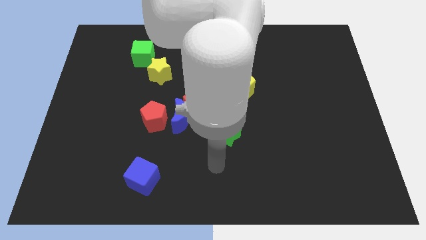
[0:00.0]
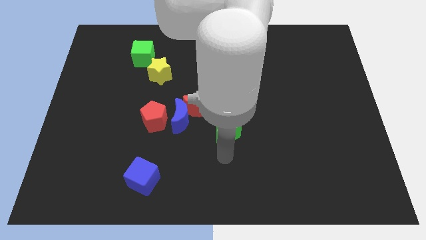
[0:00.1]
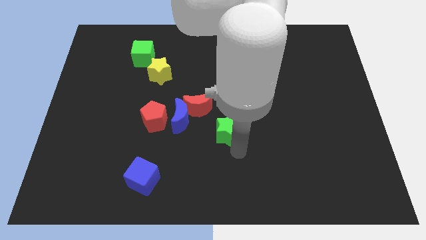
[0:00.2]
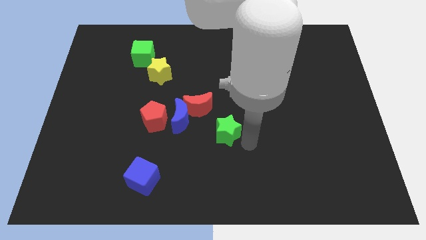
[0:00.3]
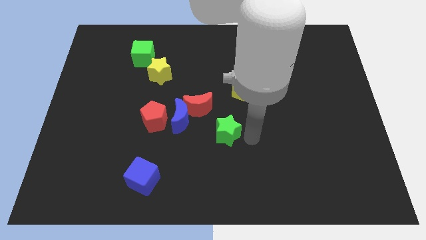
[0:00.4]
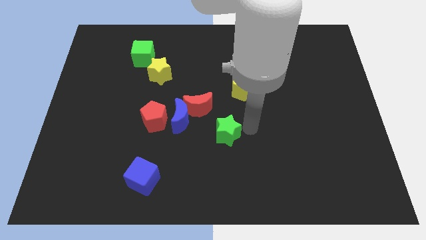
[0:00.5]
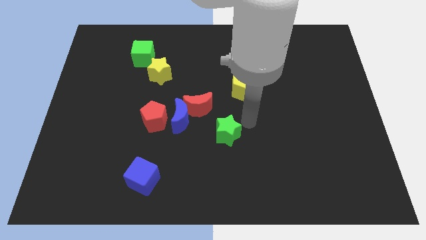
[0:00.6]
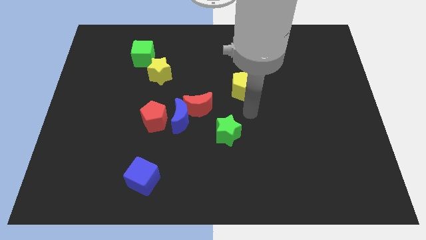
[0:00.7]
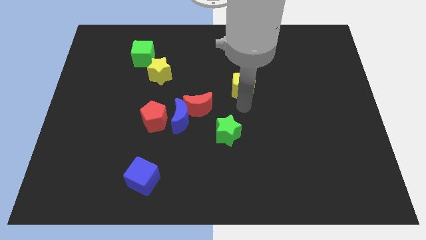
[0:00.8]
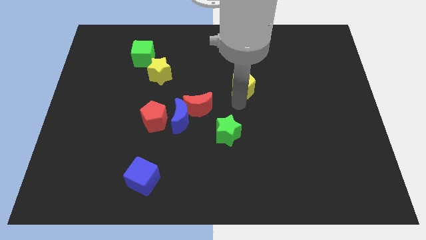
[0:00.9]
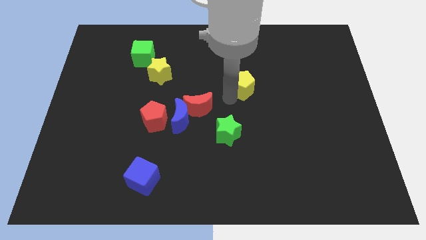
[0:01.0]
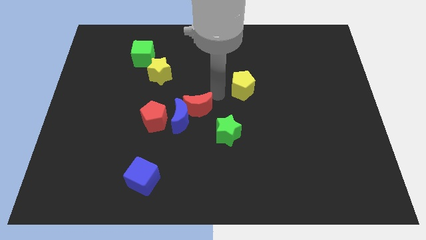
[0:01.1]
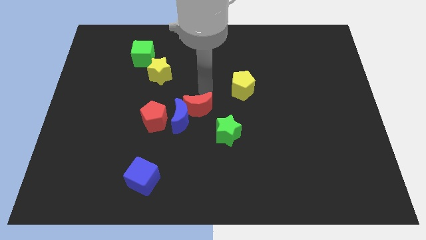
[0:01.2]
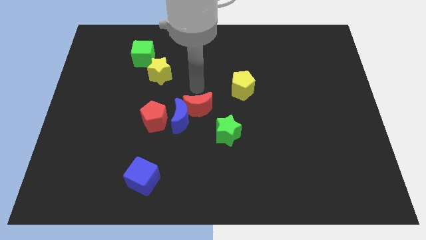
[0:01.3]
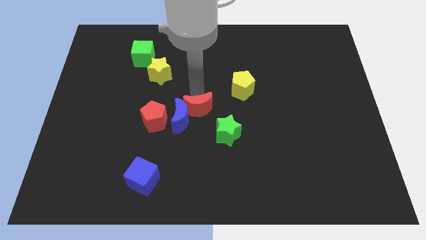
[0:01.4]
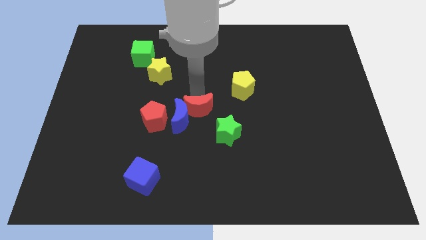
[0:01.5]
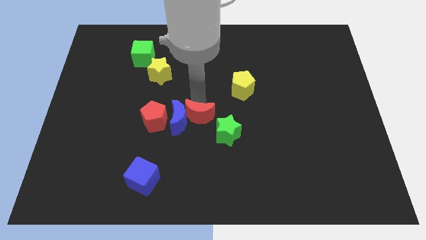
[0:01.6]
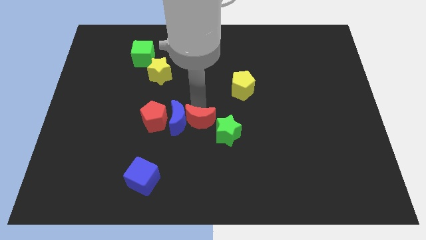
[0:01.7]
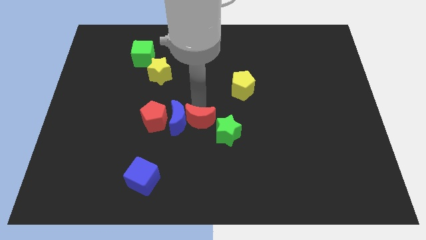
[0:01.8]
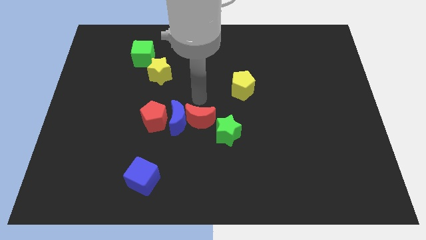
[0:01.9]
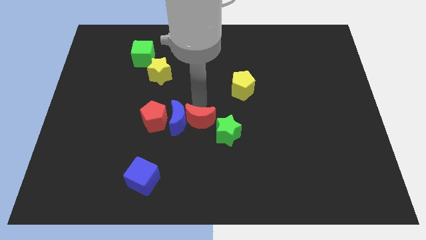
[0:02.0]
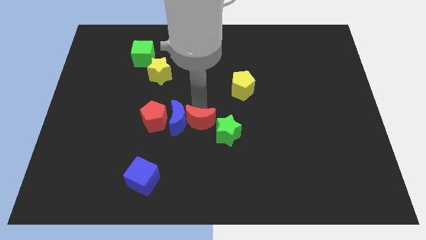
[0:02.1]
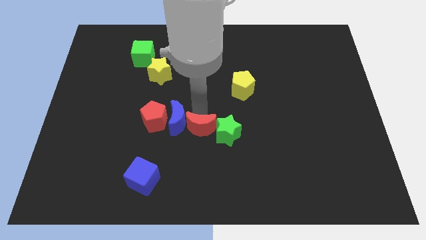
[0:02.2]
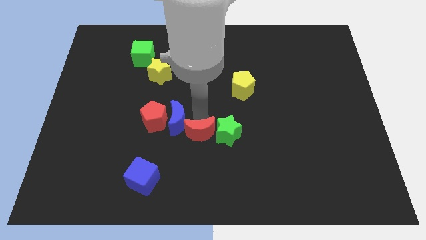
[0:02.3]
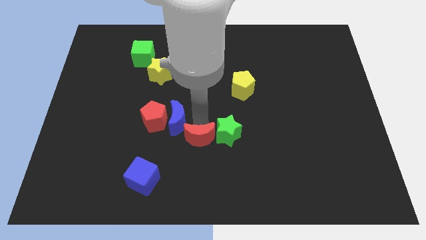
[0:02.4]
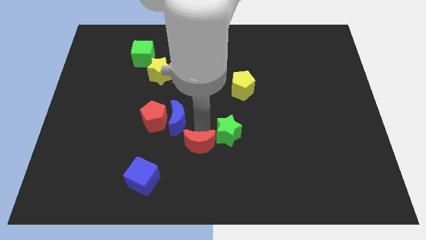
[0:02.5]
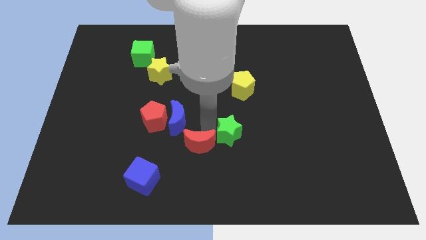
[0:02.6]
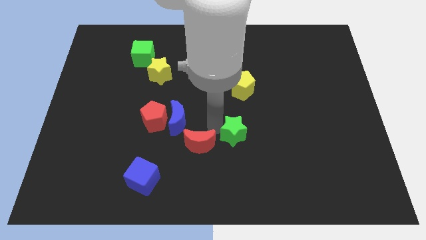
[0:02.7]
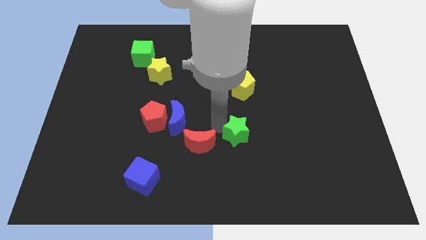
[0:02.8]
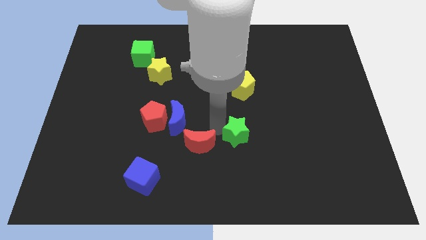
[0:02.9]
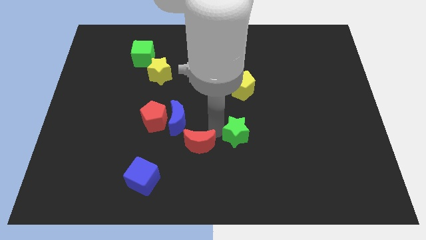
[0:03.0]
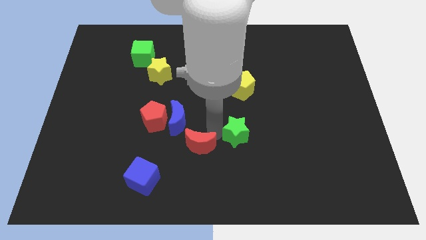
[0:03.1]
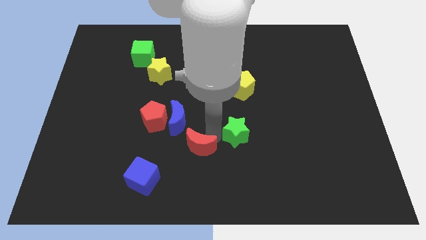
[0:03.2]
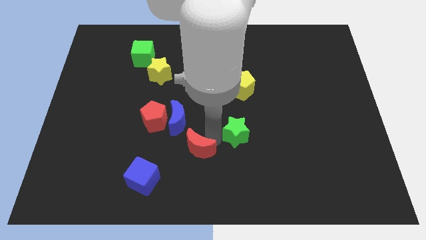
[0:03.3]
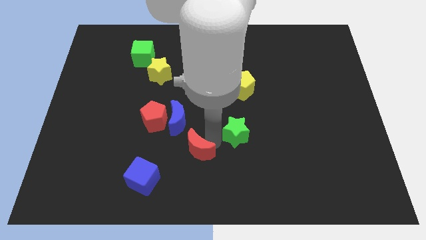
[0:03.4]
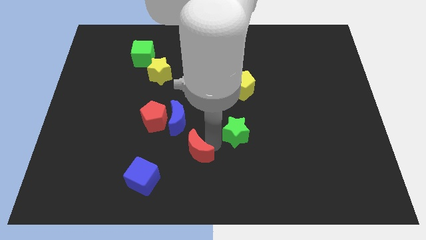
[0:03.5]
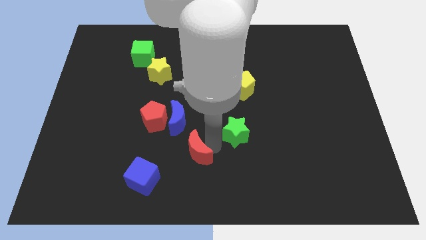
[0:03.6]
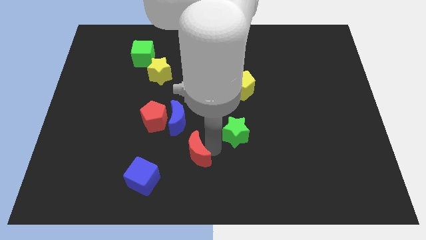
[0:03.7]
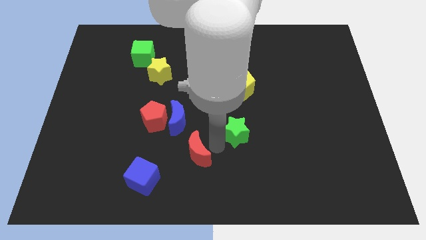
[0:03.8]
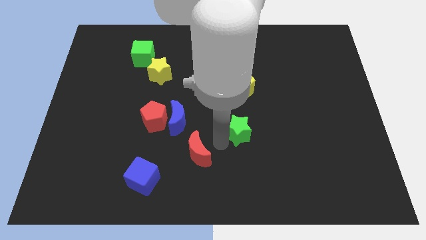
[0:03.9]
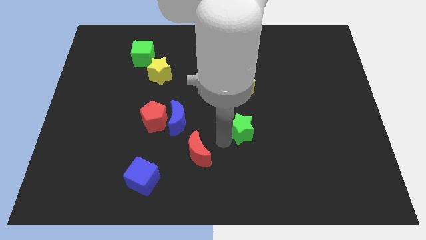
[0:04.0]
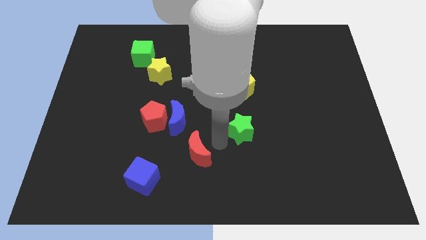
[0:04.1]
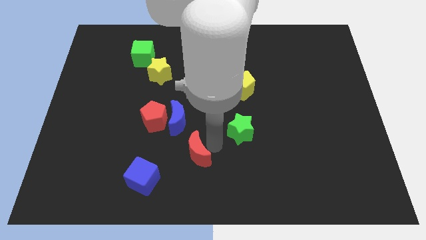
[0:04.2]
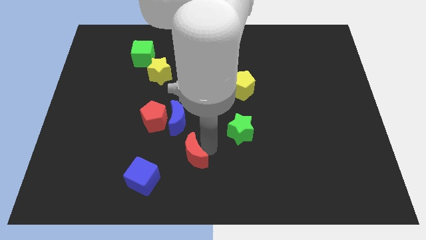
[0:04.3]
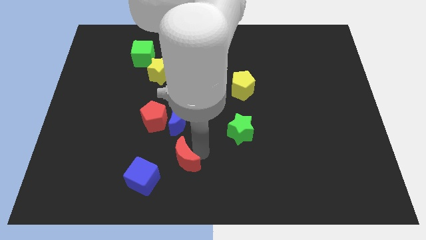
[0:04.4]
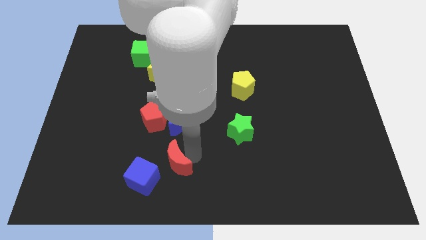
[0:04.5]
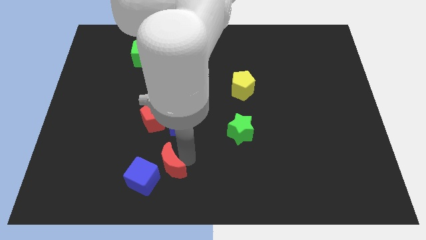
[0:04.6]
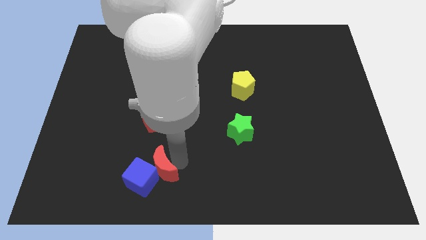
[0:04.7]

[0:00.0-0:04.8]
push the red moon close to the blue cube

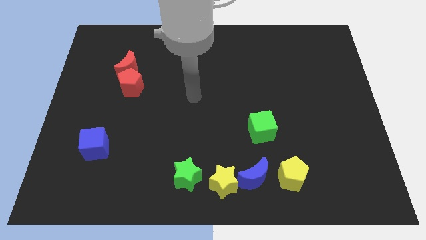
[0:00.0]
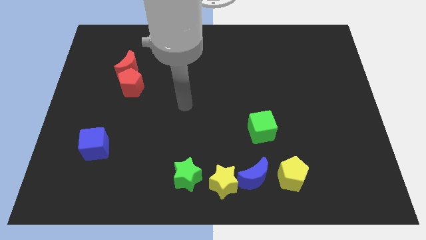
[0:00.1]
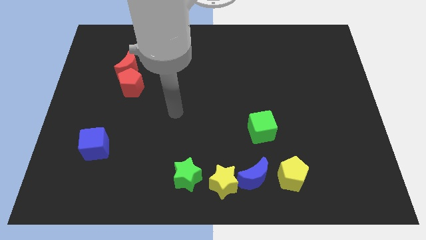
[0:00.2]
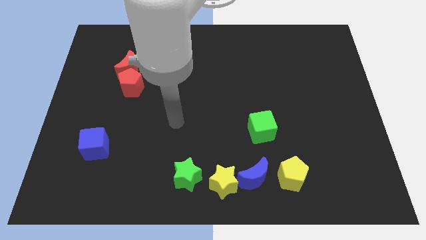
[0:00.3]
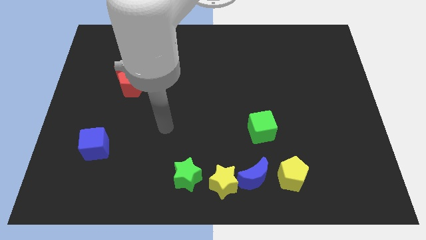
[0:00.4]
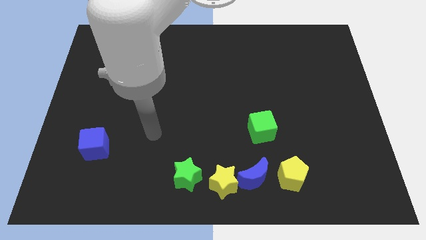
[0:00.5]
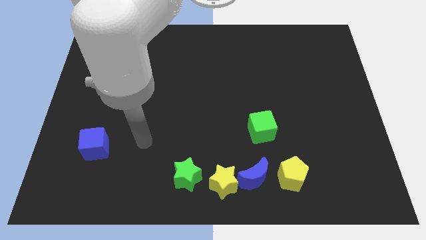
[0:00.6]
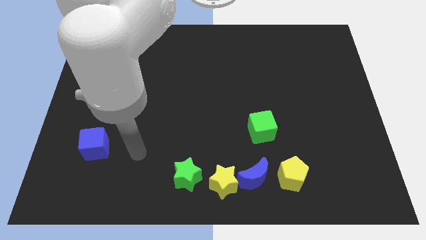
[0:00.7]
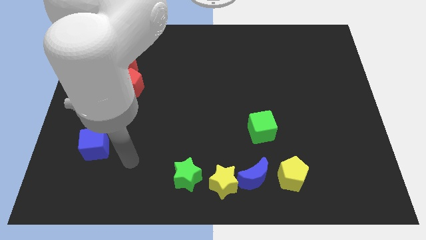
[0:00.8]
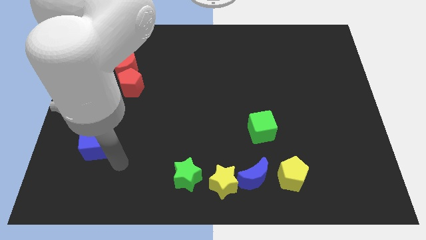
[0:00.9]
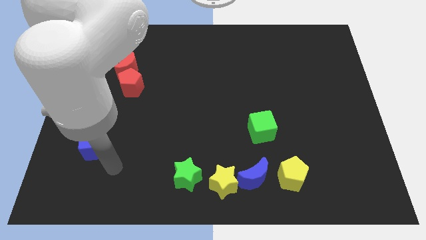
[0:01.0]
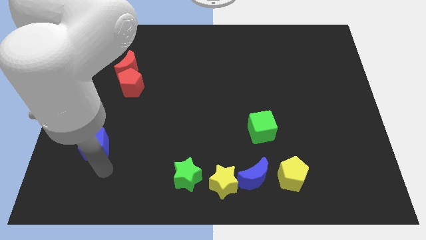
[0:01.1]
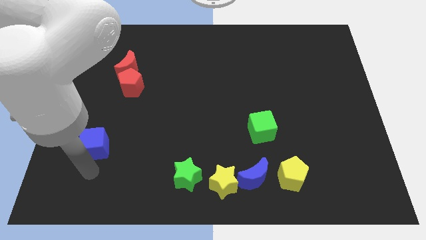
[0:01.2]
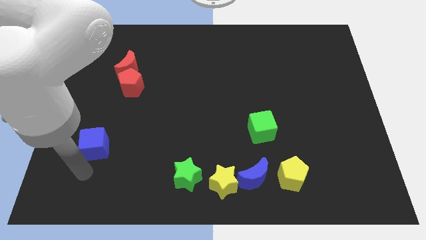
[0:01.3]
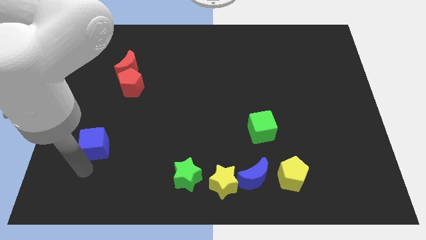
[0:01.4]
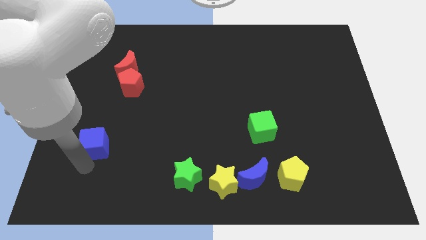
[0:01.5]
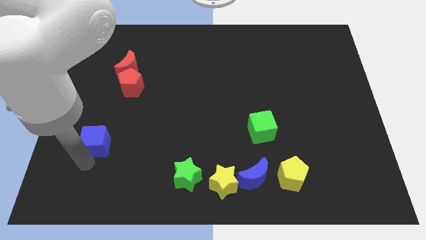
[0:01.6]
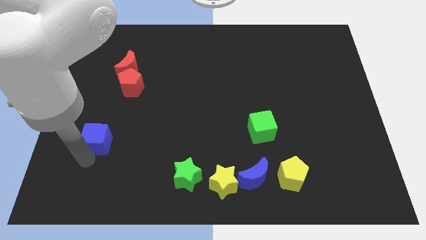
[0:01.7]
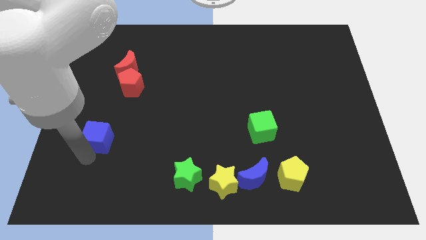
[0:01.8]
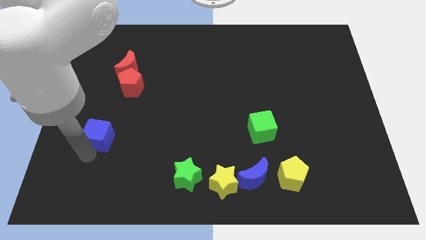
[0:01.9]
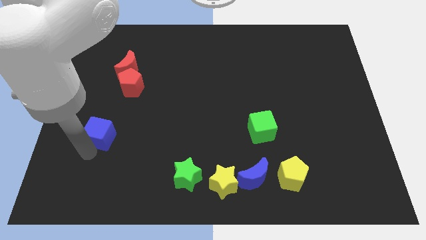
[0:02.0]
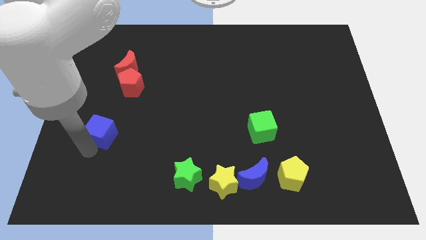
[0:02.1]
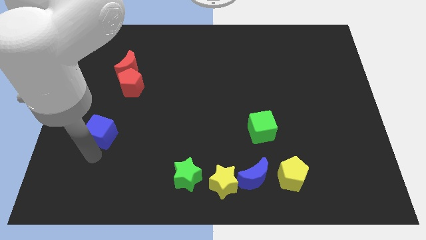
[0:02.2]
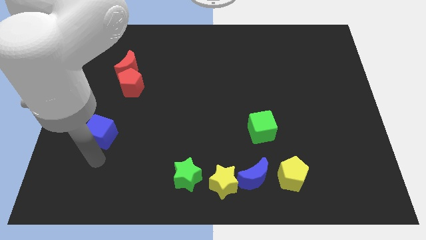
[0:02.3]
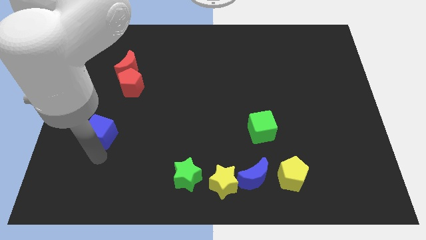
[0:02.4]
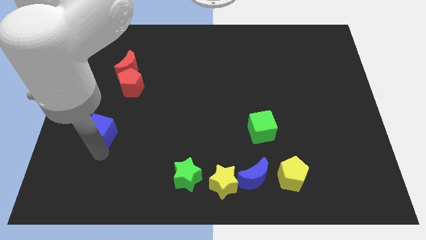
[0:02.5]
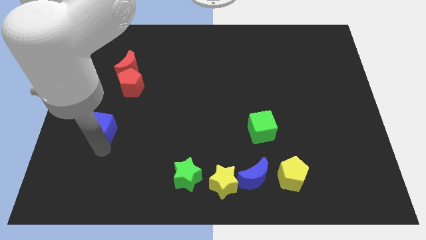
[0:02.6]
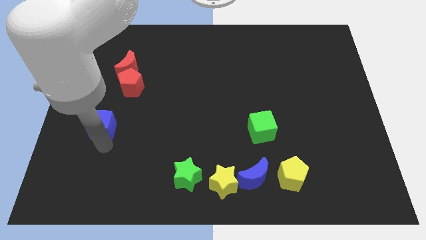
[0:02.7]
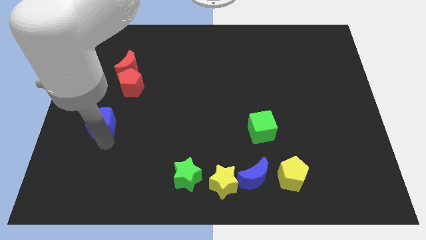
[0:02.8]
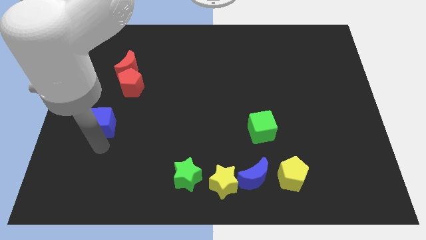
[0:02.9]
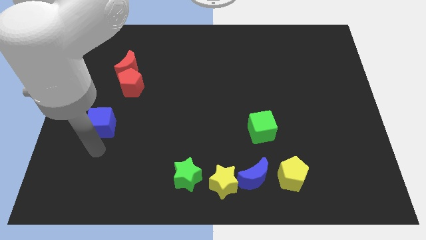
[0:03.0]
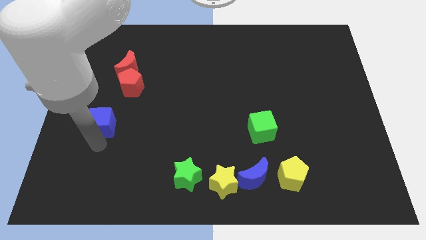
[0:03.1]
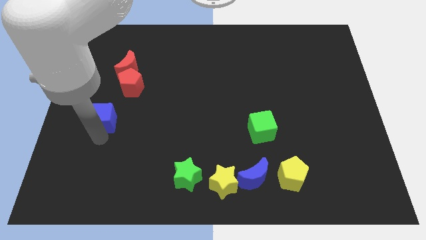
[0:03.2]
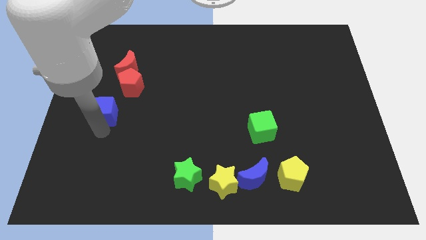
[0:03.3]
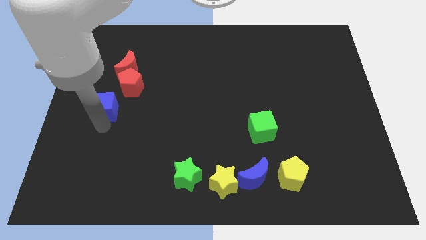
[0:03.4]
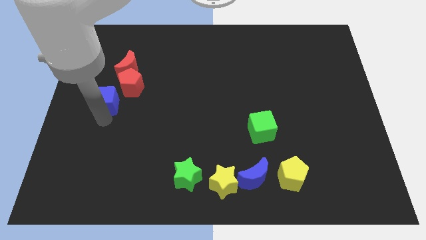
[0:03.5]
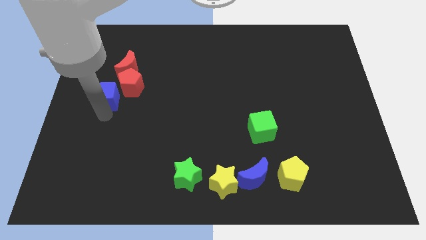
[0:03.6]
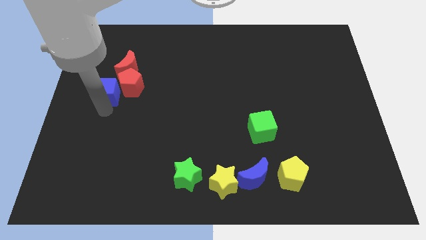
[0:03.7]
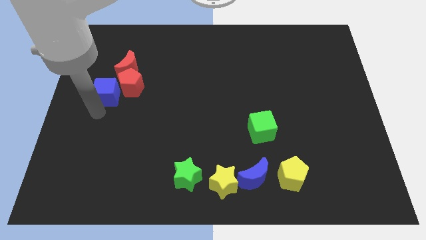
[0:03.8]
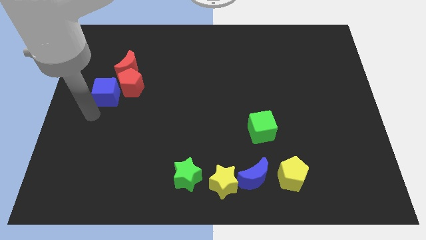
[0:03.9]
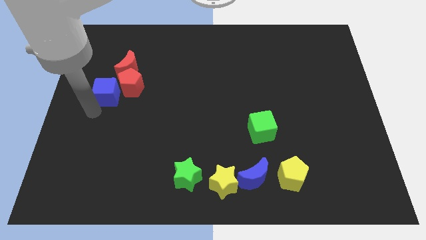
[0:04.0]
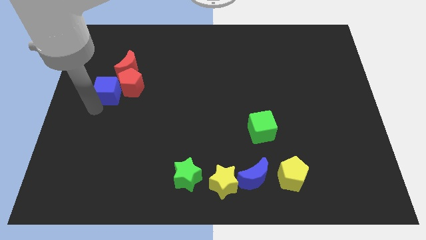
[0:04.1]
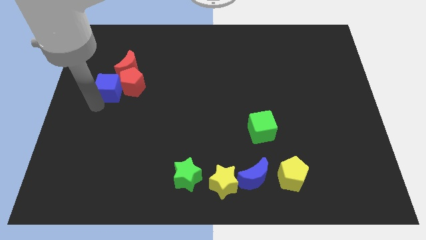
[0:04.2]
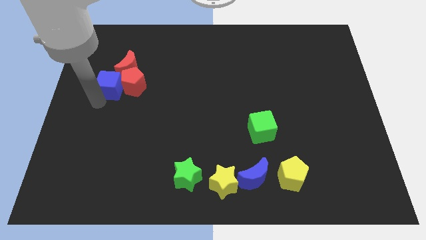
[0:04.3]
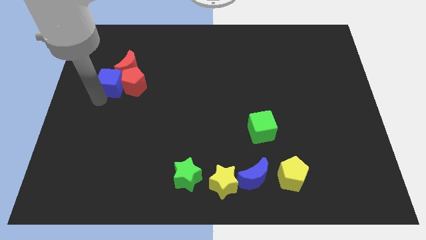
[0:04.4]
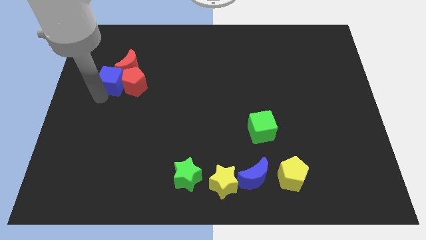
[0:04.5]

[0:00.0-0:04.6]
move the blue cube close to the red moon
